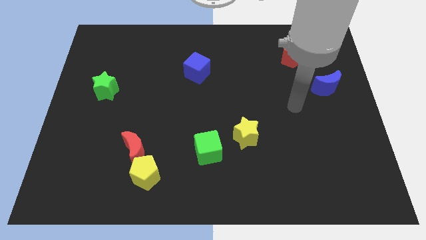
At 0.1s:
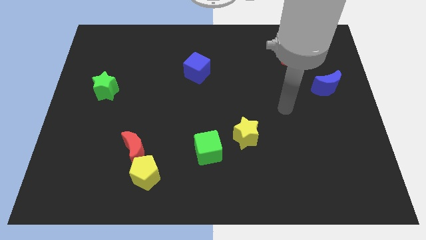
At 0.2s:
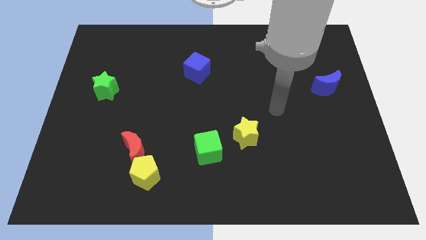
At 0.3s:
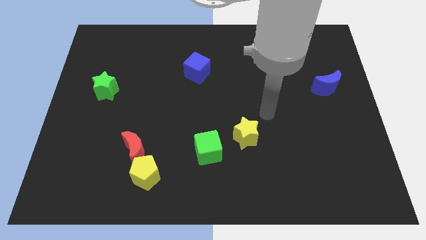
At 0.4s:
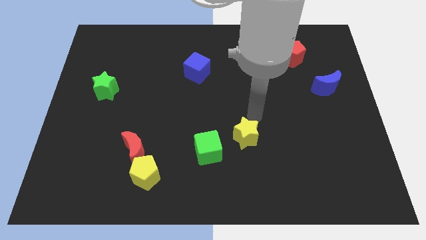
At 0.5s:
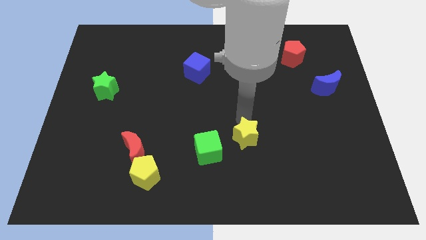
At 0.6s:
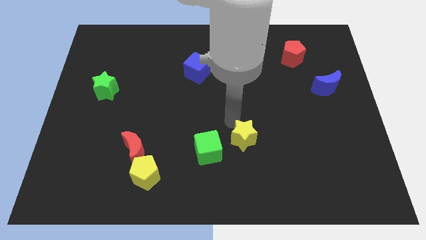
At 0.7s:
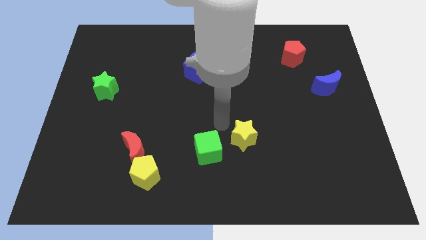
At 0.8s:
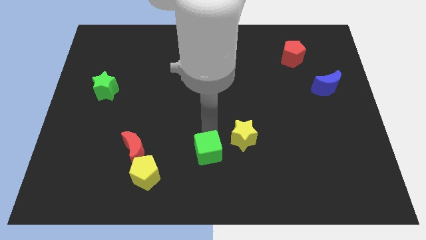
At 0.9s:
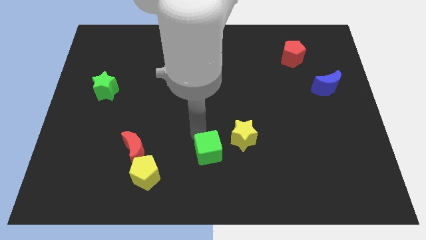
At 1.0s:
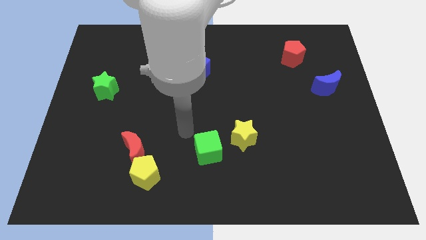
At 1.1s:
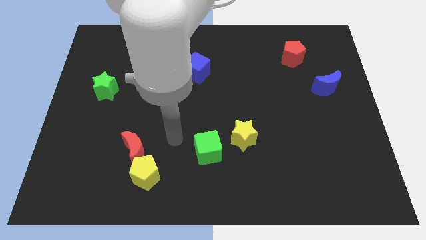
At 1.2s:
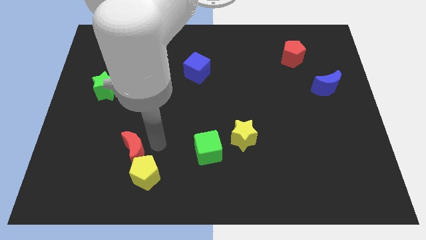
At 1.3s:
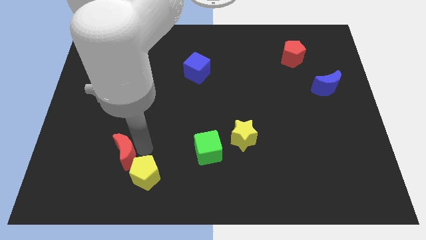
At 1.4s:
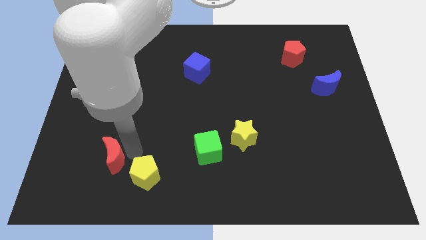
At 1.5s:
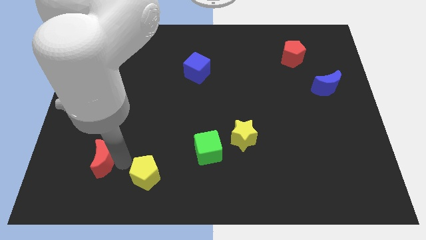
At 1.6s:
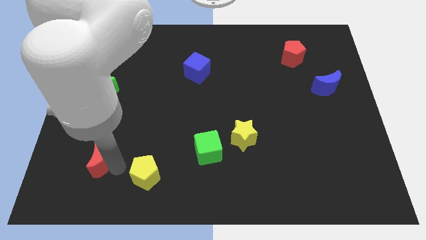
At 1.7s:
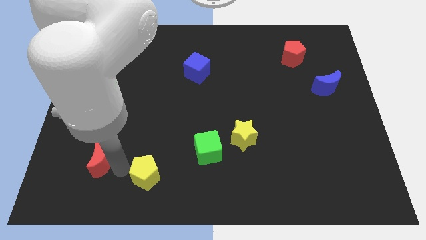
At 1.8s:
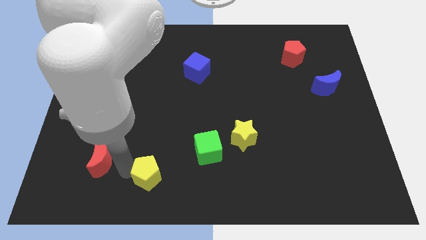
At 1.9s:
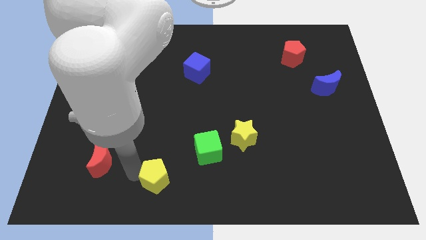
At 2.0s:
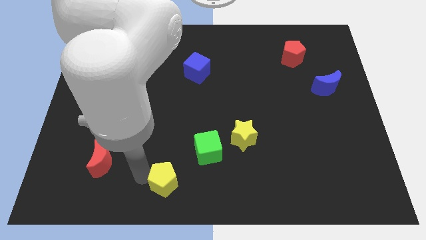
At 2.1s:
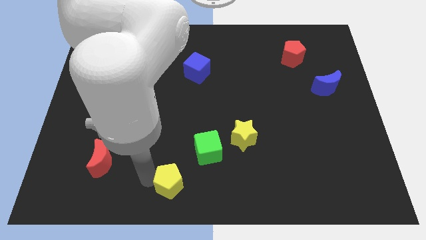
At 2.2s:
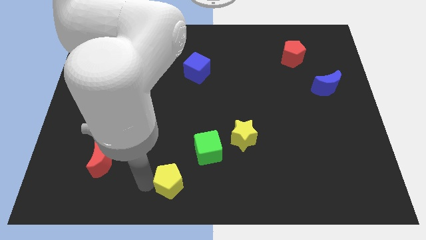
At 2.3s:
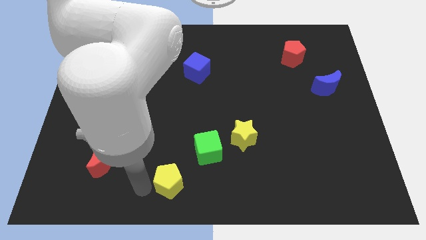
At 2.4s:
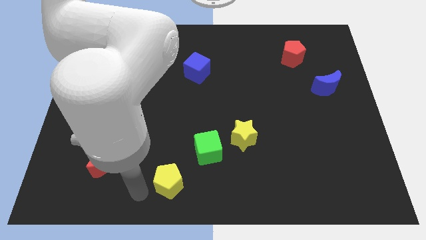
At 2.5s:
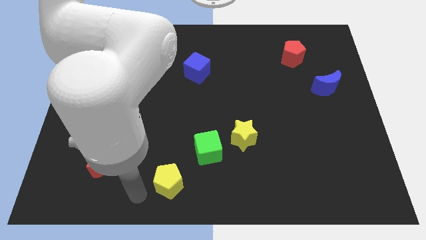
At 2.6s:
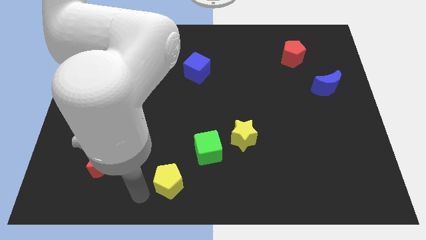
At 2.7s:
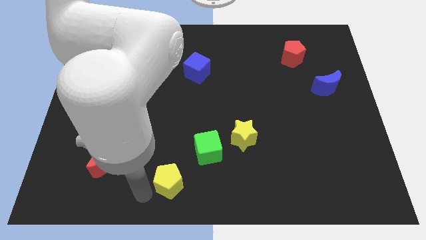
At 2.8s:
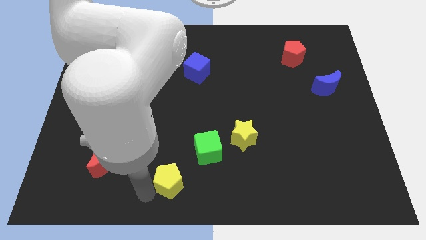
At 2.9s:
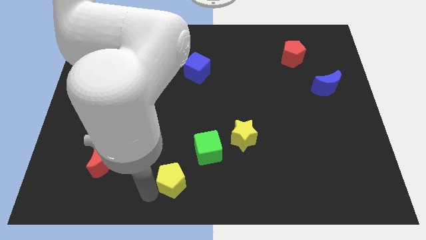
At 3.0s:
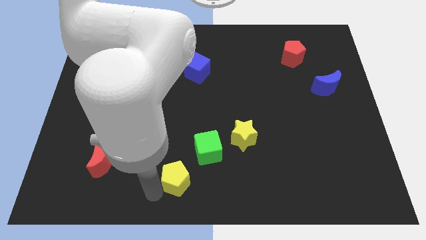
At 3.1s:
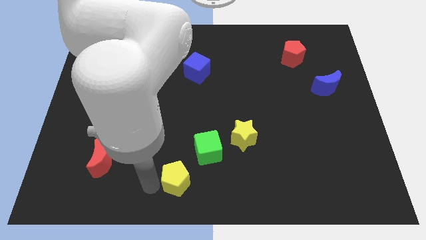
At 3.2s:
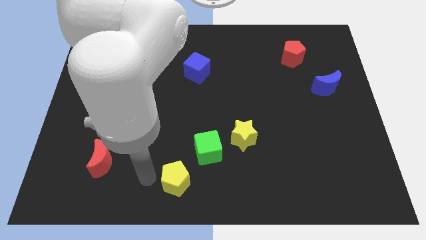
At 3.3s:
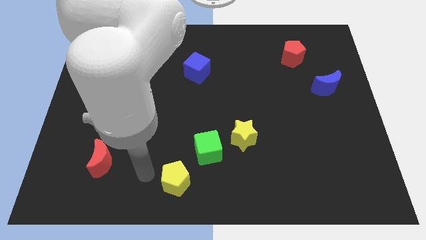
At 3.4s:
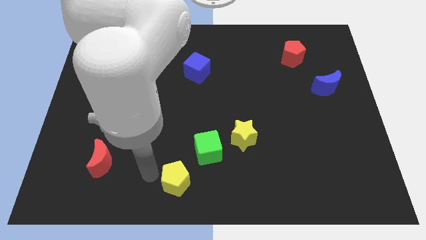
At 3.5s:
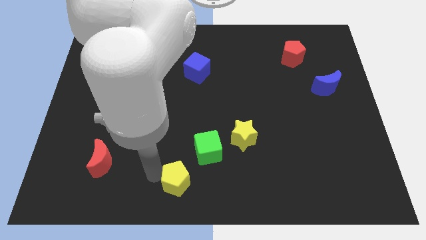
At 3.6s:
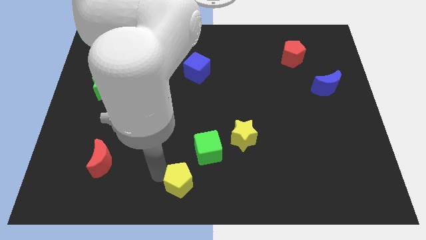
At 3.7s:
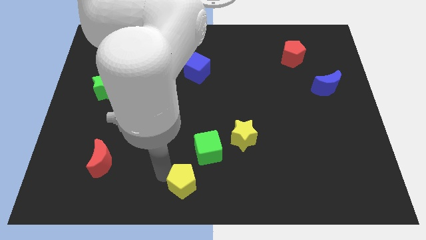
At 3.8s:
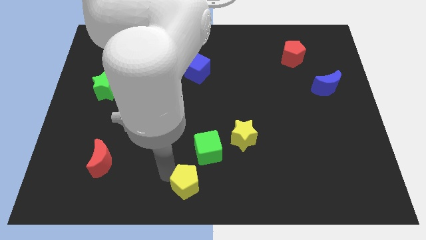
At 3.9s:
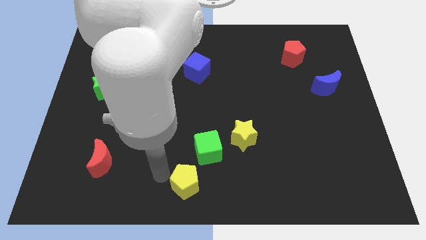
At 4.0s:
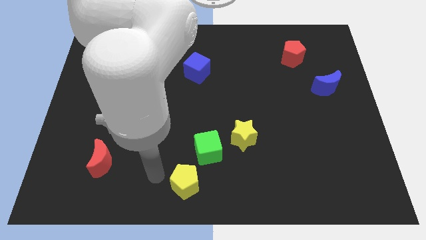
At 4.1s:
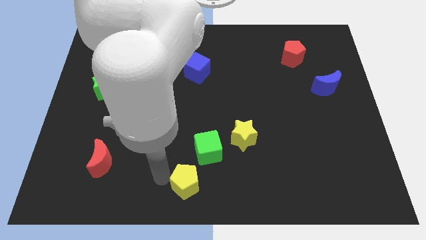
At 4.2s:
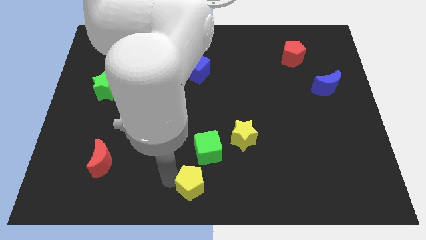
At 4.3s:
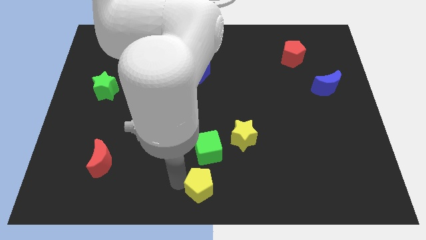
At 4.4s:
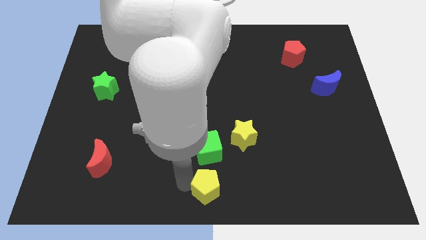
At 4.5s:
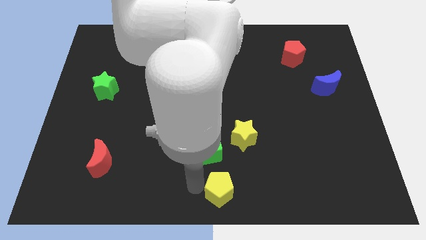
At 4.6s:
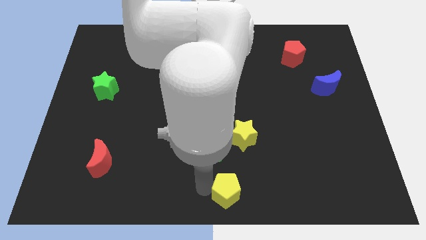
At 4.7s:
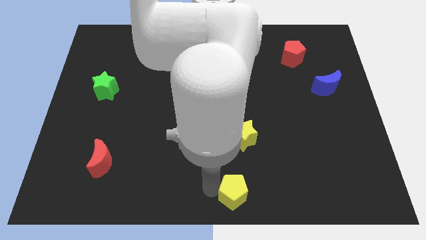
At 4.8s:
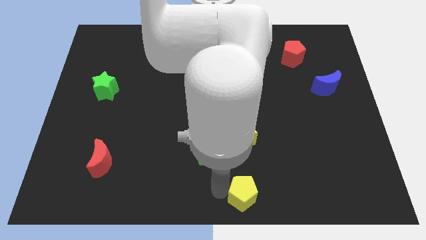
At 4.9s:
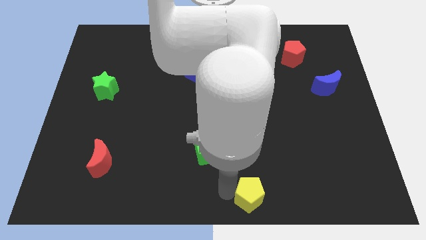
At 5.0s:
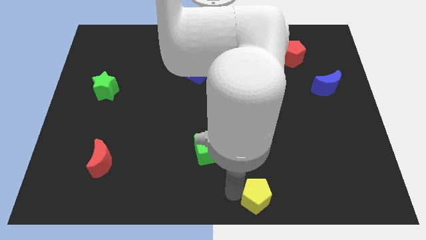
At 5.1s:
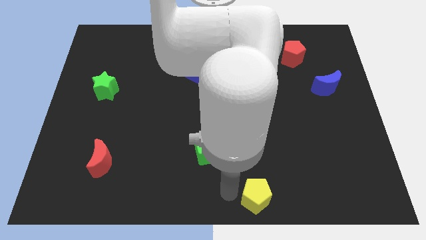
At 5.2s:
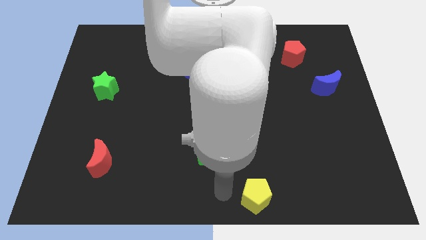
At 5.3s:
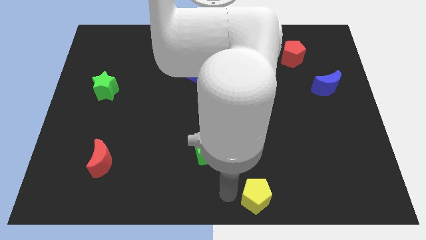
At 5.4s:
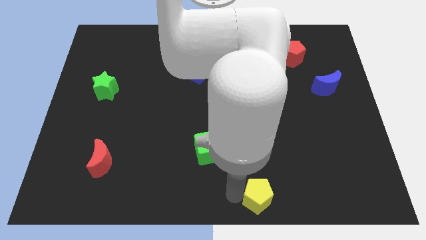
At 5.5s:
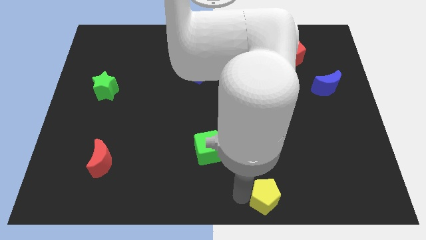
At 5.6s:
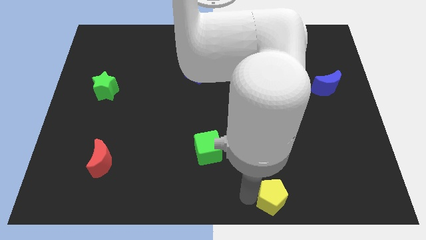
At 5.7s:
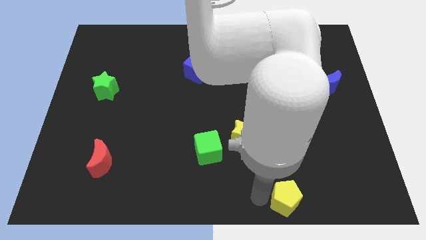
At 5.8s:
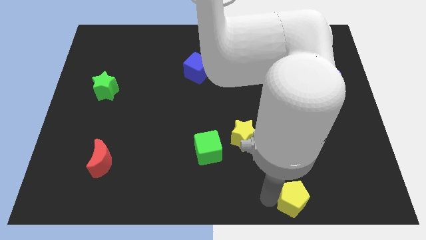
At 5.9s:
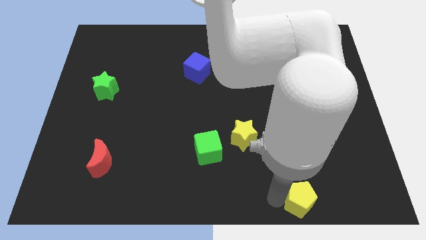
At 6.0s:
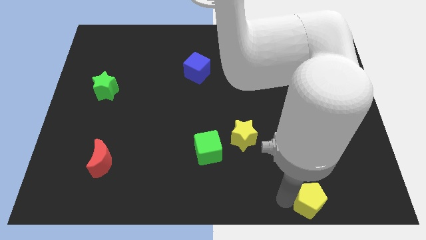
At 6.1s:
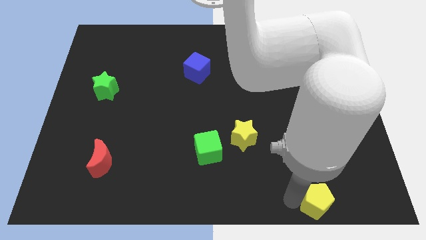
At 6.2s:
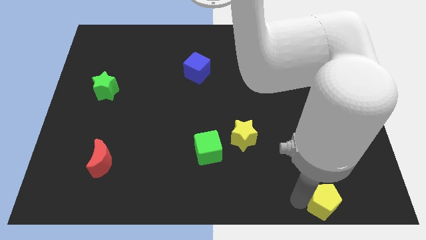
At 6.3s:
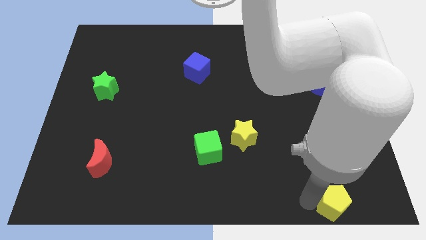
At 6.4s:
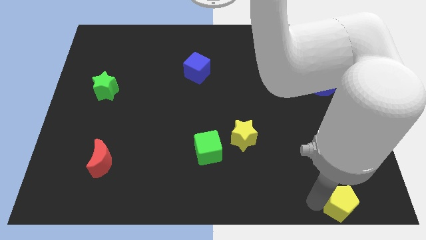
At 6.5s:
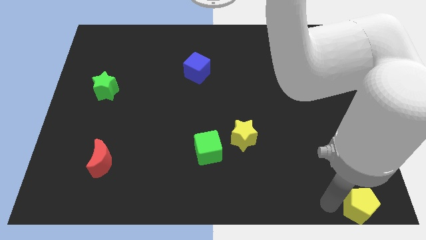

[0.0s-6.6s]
put the yellow pentagon to the bottom right

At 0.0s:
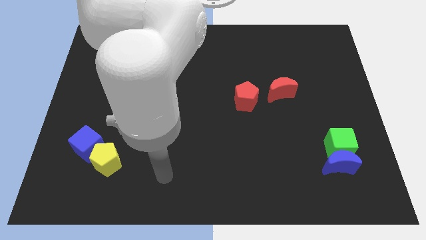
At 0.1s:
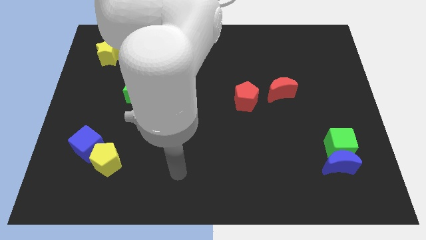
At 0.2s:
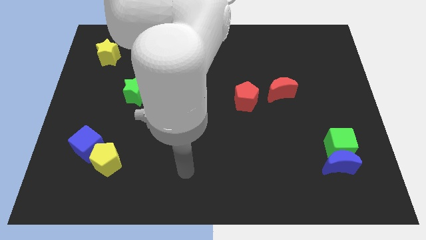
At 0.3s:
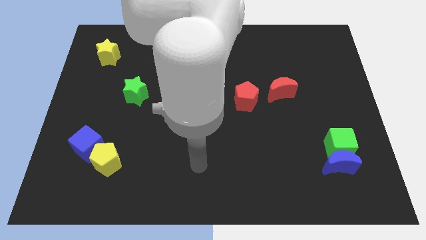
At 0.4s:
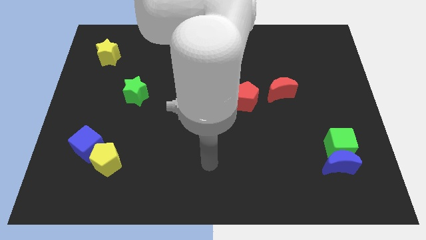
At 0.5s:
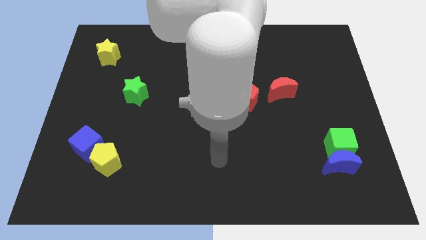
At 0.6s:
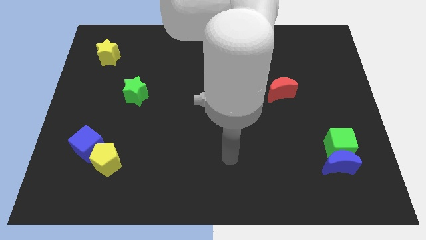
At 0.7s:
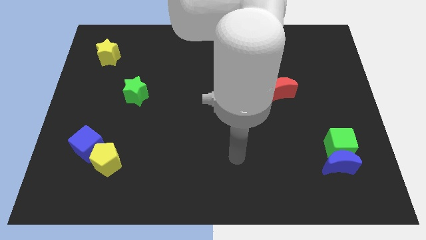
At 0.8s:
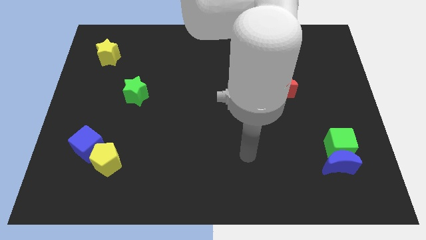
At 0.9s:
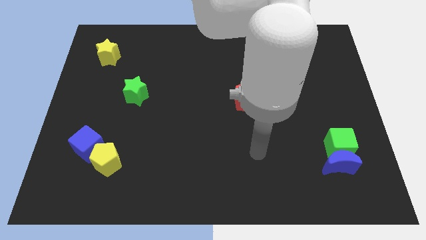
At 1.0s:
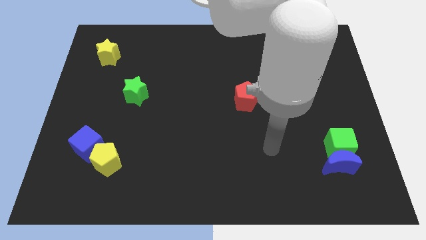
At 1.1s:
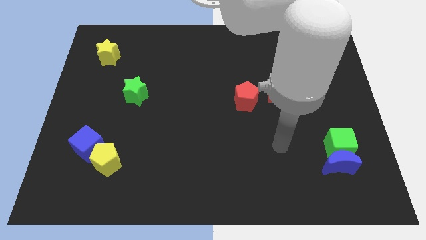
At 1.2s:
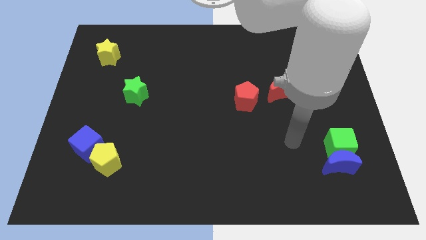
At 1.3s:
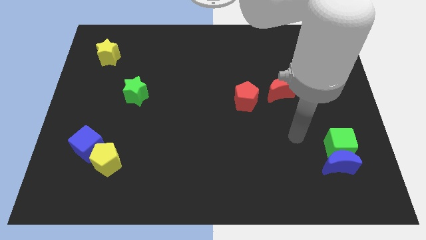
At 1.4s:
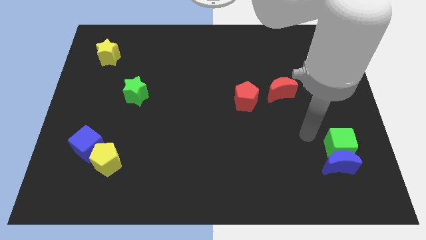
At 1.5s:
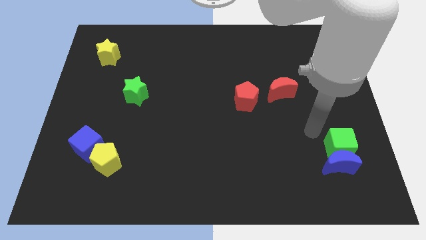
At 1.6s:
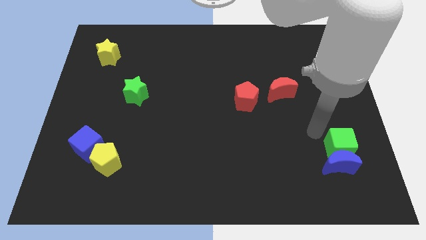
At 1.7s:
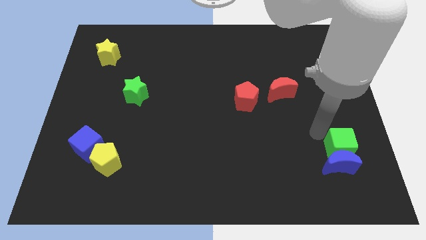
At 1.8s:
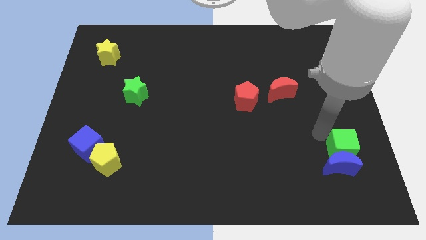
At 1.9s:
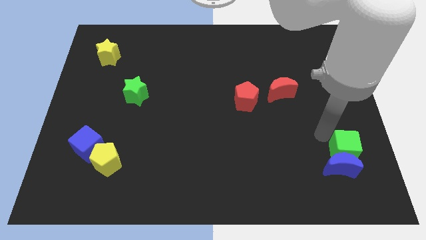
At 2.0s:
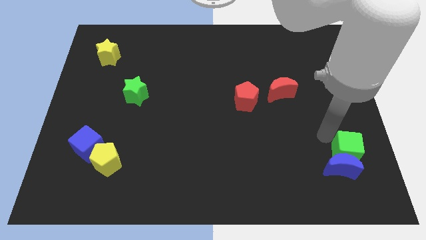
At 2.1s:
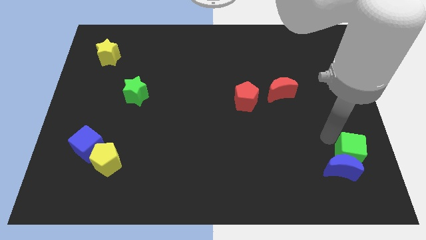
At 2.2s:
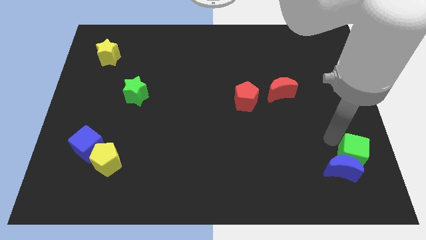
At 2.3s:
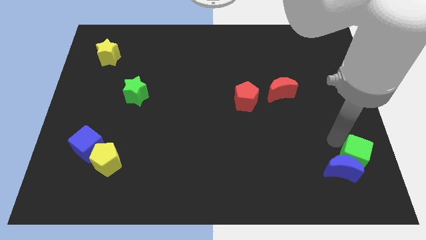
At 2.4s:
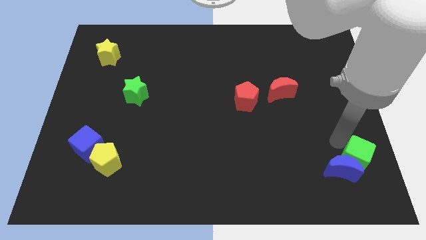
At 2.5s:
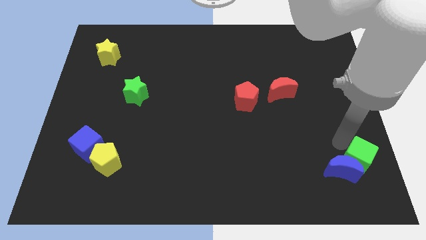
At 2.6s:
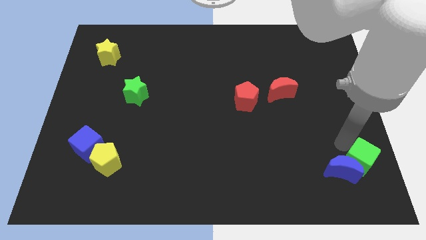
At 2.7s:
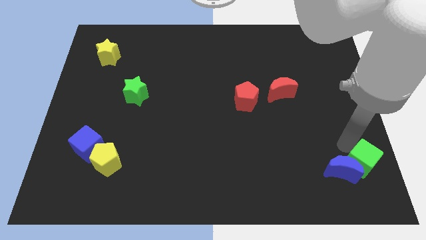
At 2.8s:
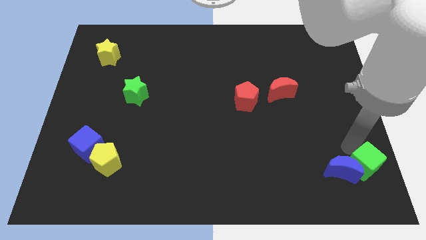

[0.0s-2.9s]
push the green cube to the lower right corner
